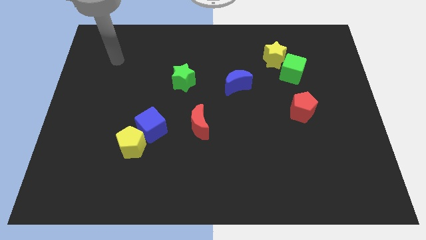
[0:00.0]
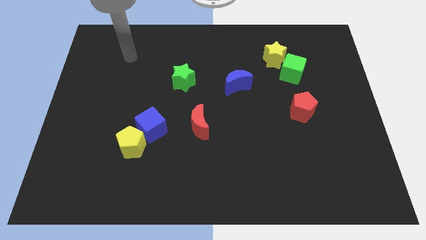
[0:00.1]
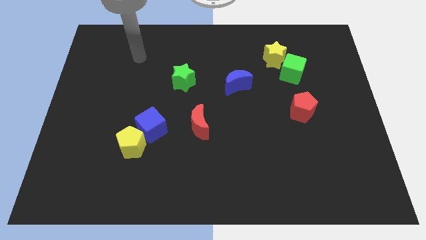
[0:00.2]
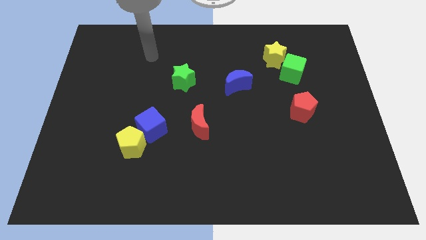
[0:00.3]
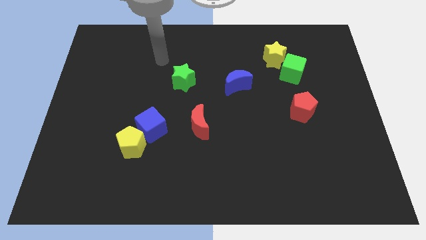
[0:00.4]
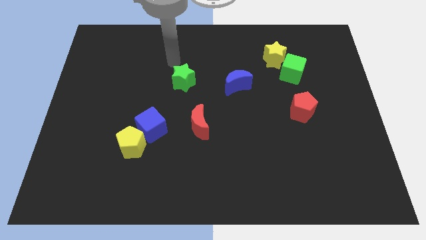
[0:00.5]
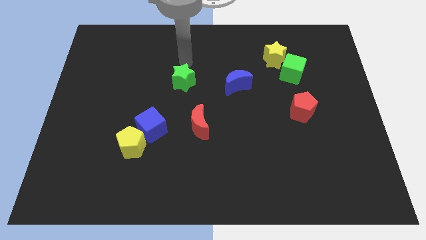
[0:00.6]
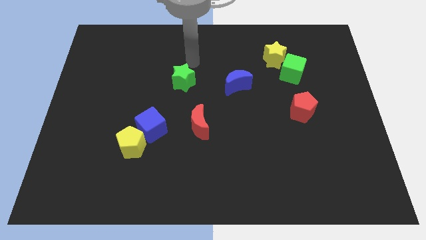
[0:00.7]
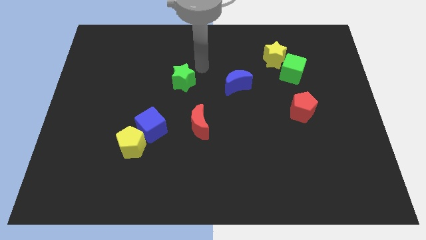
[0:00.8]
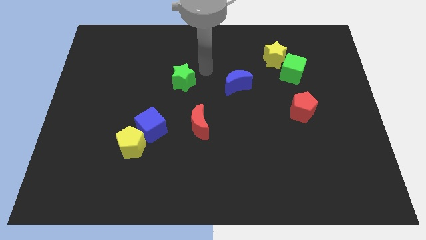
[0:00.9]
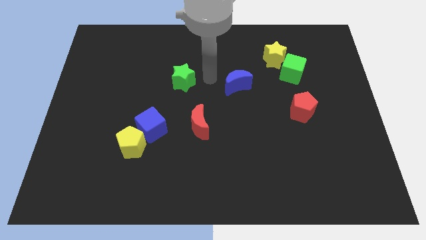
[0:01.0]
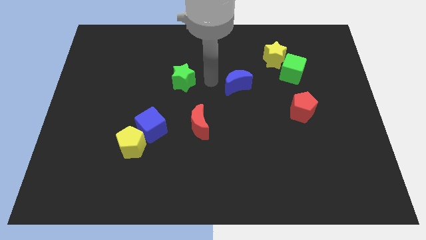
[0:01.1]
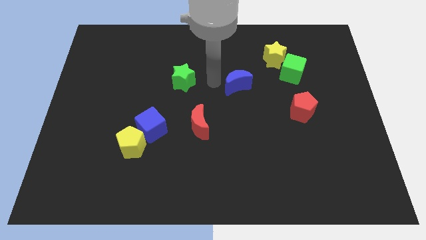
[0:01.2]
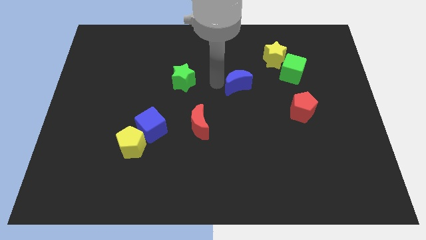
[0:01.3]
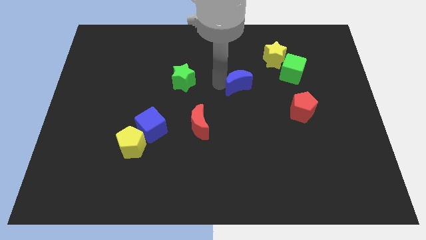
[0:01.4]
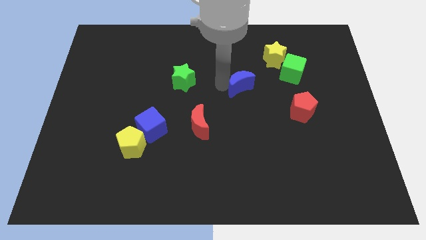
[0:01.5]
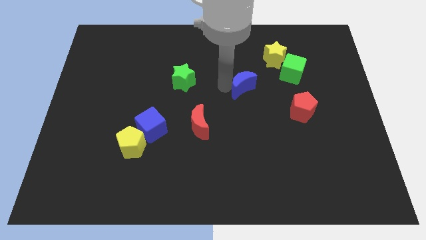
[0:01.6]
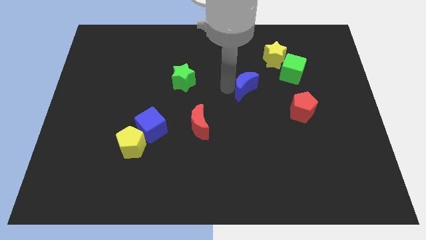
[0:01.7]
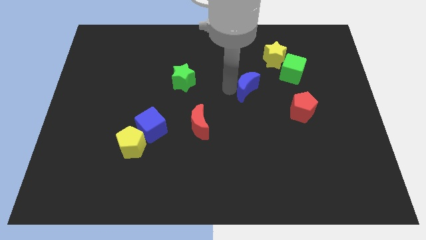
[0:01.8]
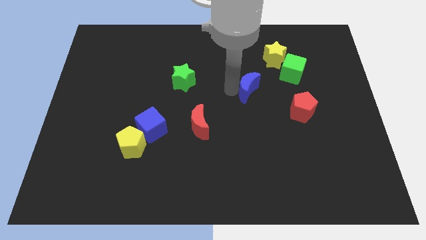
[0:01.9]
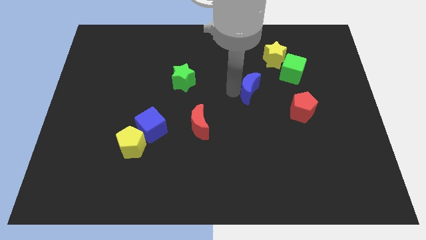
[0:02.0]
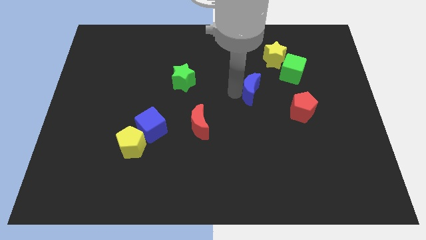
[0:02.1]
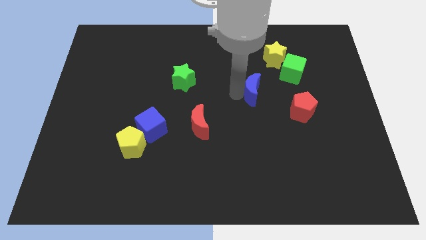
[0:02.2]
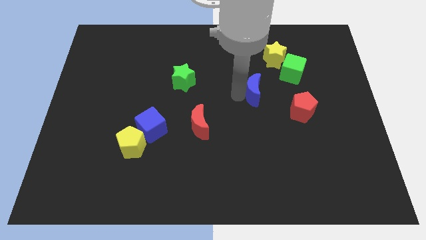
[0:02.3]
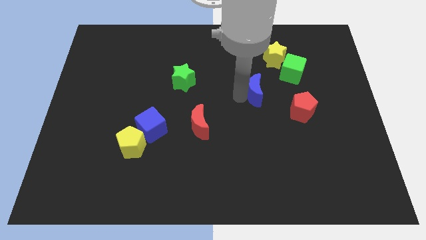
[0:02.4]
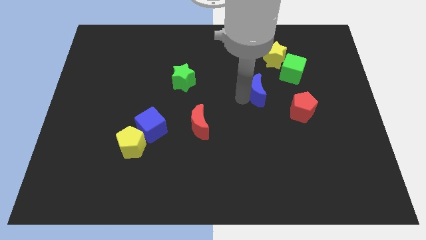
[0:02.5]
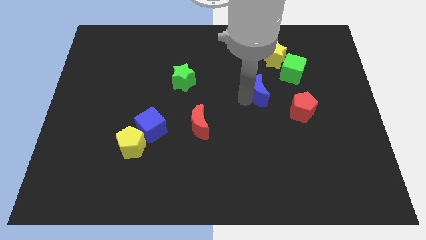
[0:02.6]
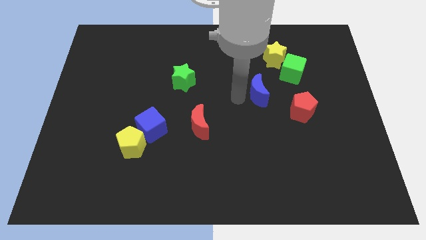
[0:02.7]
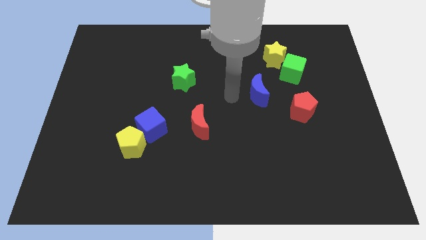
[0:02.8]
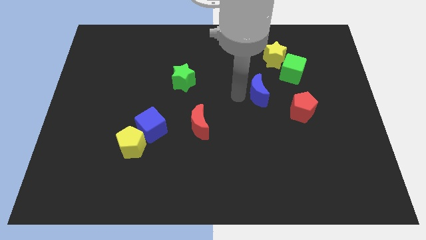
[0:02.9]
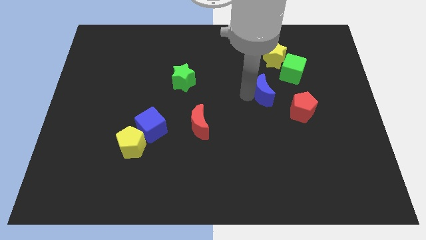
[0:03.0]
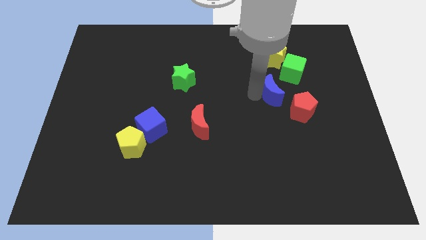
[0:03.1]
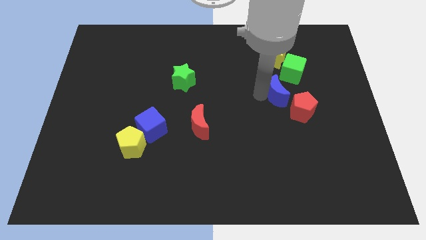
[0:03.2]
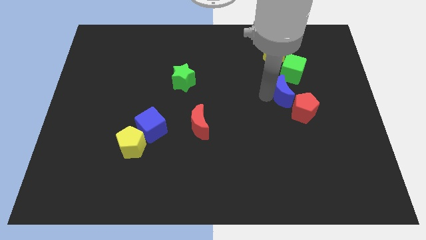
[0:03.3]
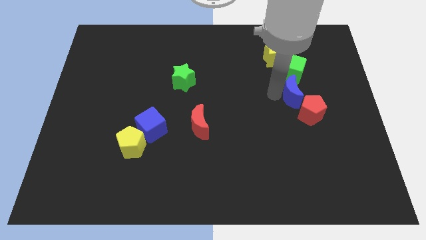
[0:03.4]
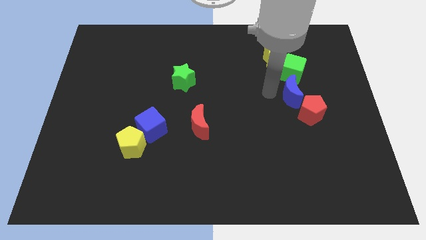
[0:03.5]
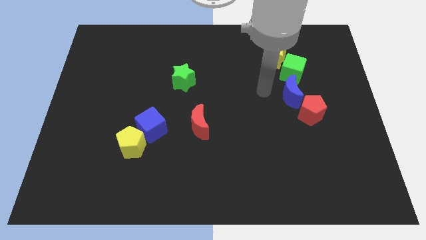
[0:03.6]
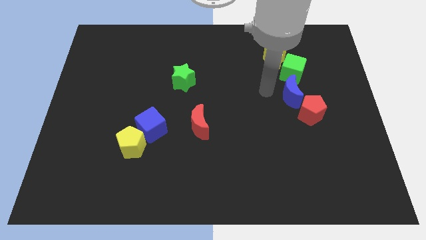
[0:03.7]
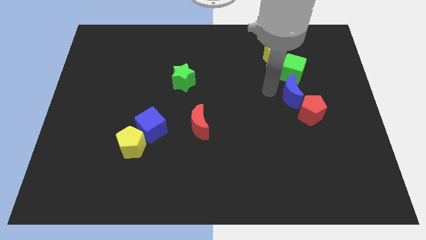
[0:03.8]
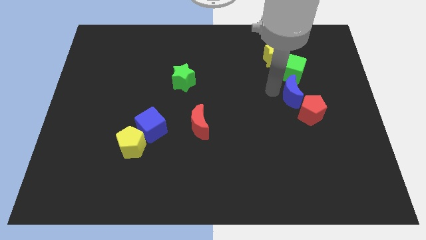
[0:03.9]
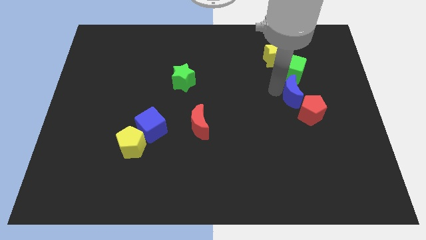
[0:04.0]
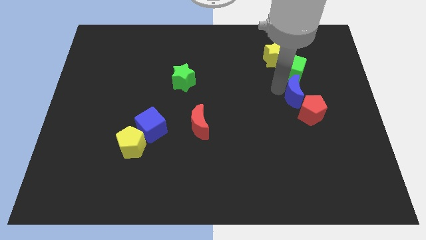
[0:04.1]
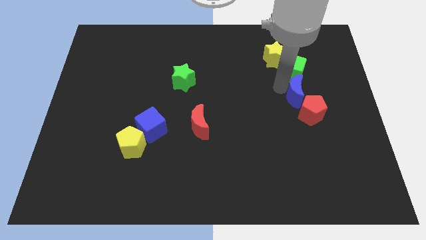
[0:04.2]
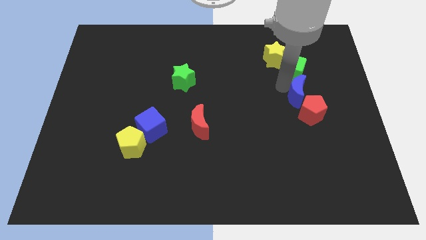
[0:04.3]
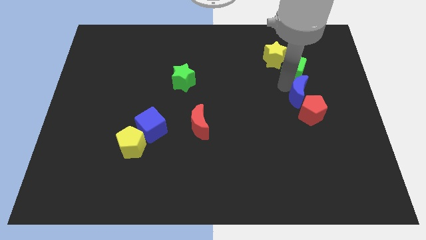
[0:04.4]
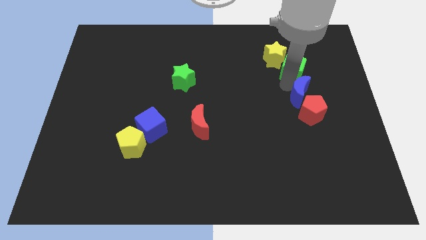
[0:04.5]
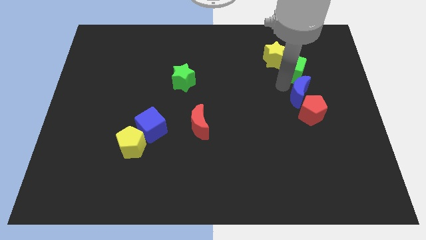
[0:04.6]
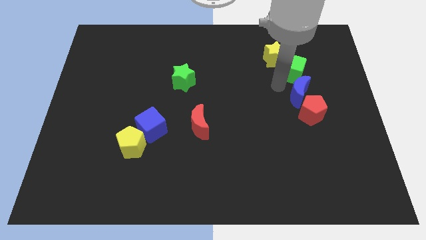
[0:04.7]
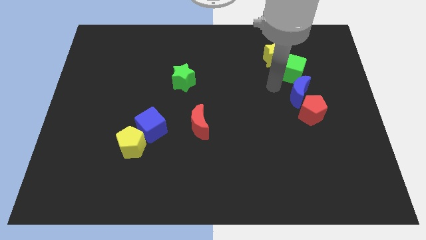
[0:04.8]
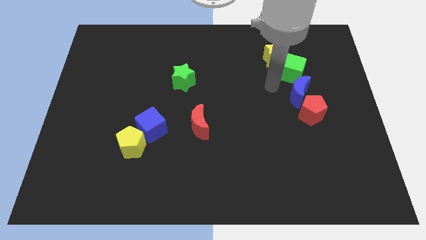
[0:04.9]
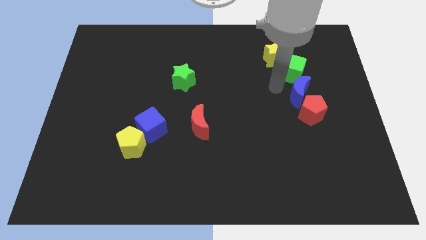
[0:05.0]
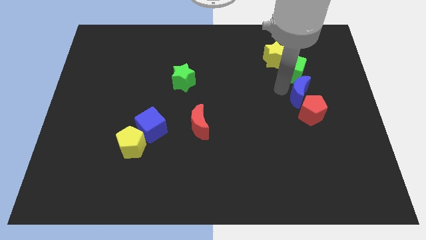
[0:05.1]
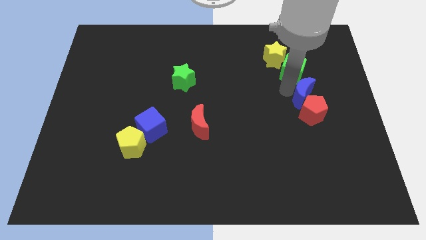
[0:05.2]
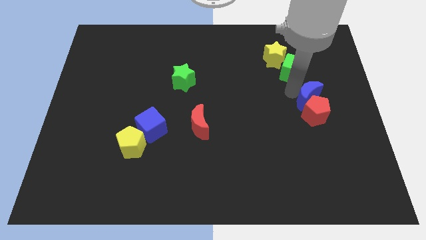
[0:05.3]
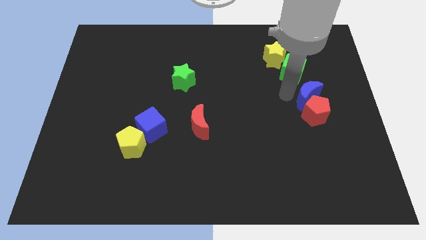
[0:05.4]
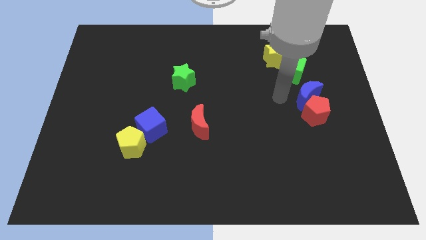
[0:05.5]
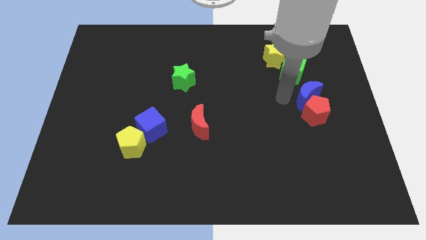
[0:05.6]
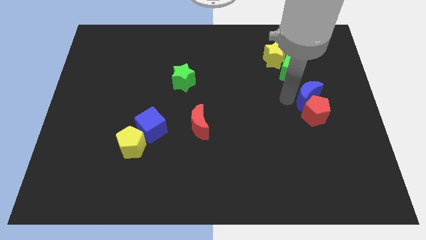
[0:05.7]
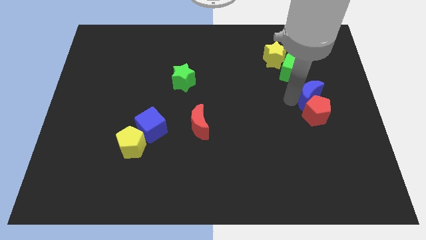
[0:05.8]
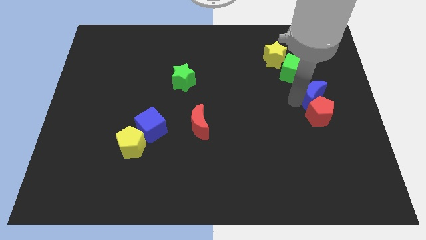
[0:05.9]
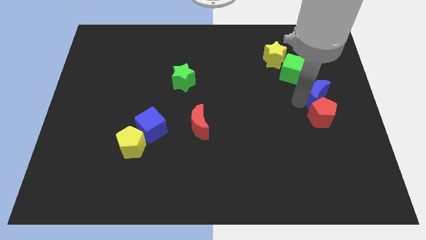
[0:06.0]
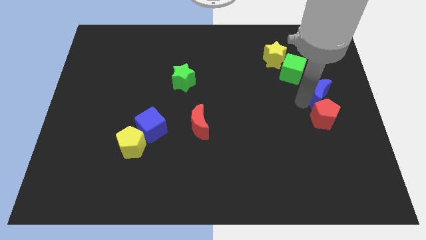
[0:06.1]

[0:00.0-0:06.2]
push the blue moon to the right side of the board

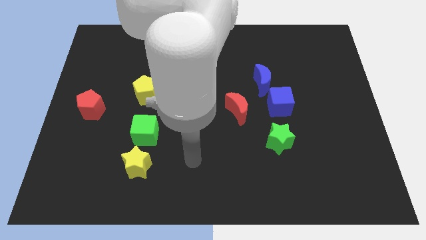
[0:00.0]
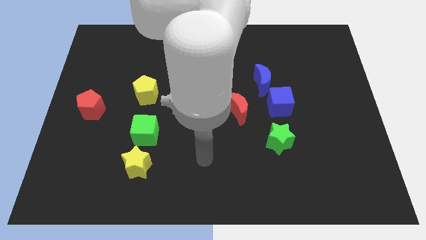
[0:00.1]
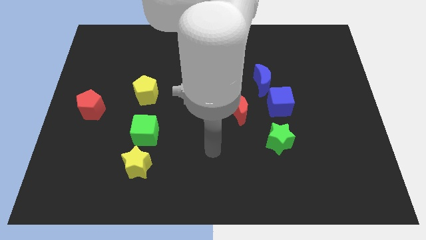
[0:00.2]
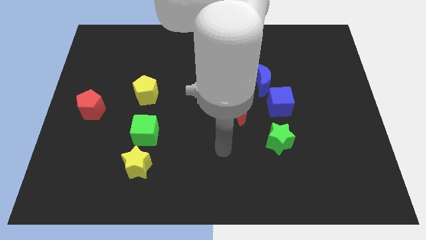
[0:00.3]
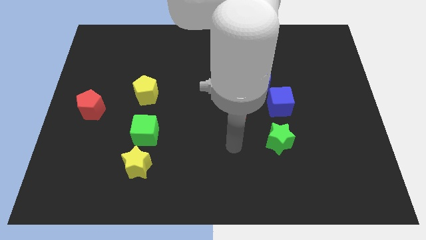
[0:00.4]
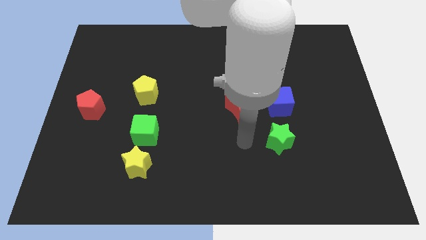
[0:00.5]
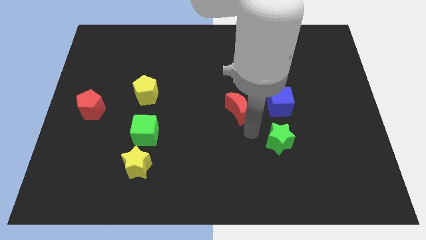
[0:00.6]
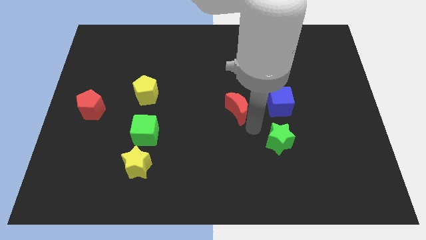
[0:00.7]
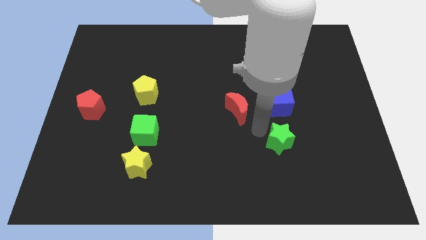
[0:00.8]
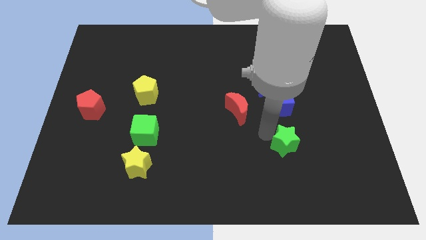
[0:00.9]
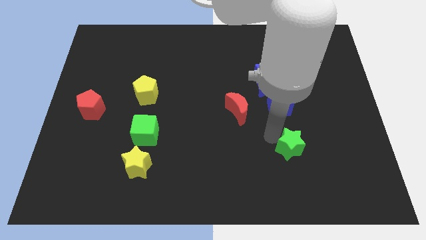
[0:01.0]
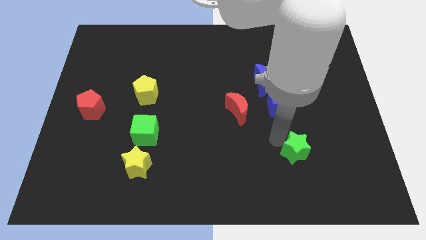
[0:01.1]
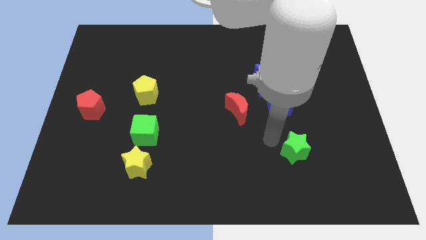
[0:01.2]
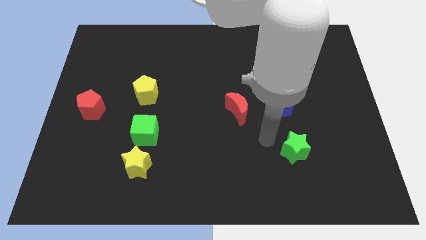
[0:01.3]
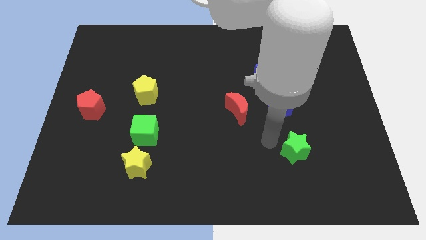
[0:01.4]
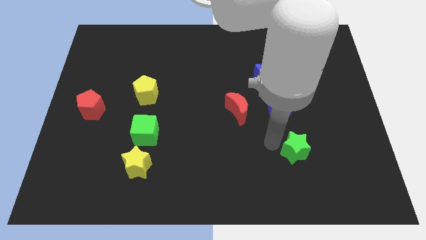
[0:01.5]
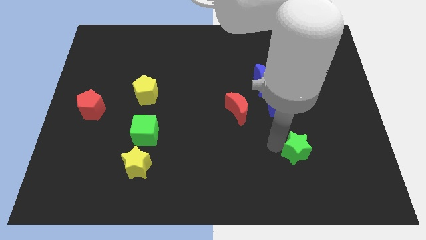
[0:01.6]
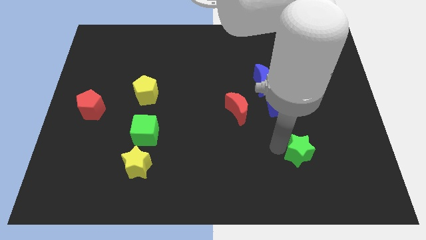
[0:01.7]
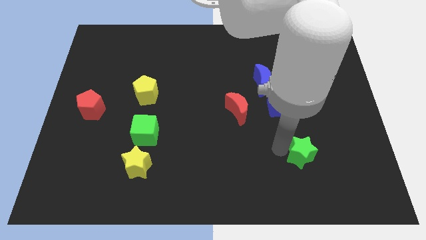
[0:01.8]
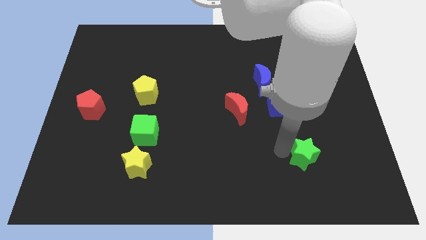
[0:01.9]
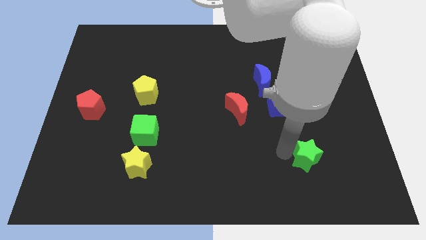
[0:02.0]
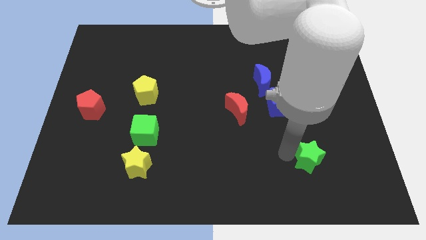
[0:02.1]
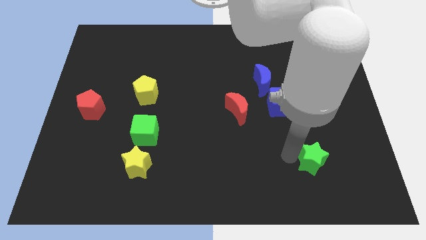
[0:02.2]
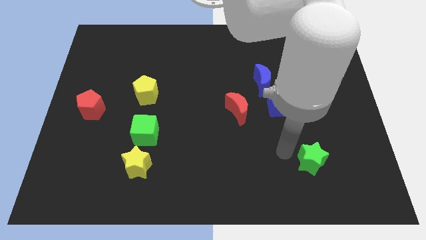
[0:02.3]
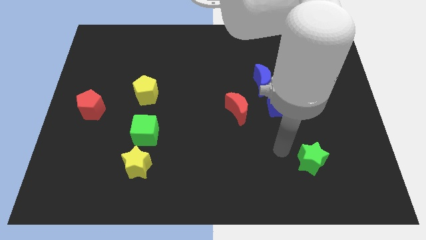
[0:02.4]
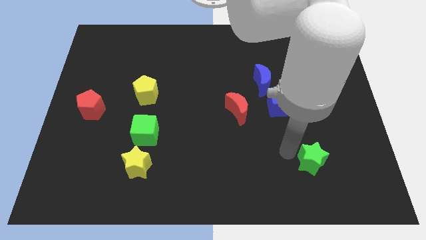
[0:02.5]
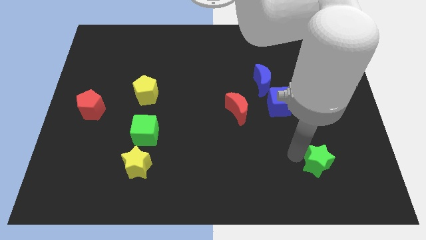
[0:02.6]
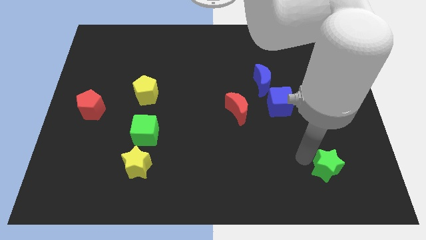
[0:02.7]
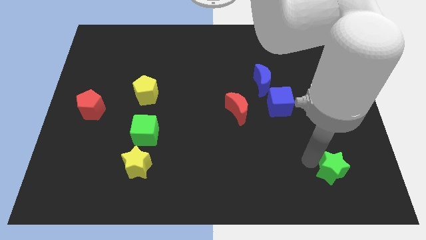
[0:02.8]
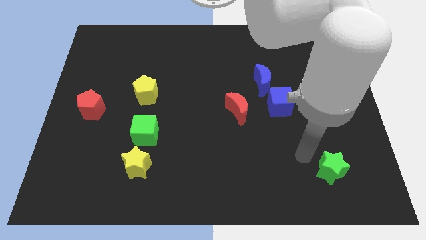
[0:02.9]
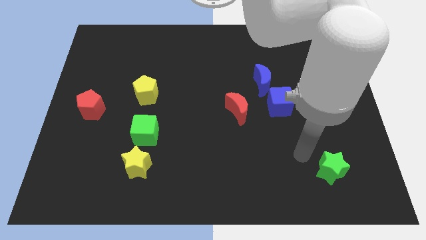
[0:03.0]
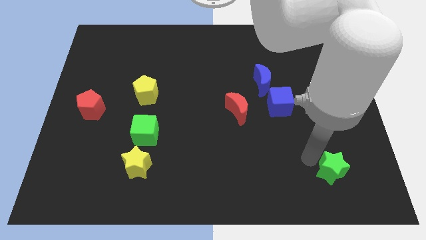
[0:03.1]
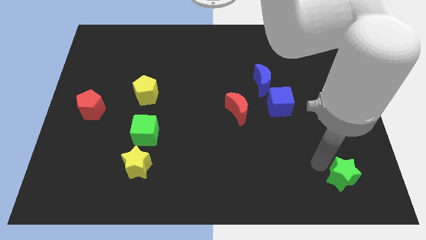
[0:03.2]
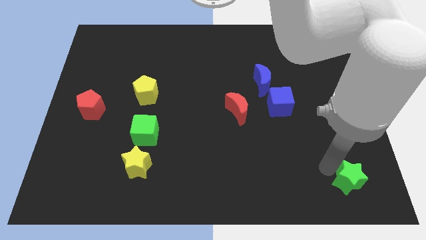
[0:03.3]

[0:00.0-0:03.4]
move the green star to the lower right corner
